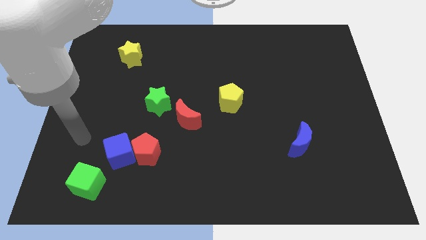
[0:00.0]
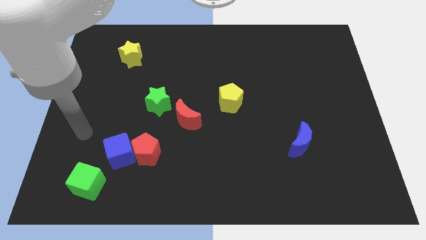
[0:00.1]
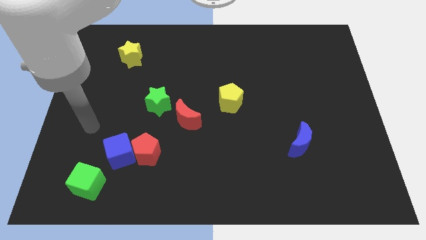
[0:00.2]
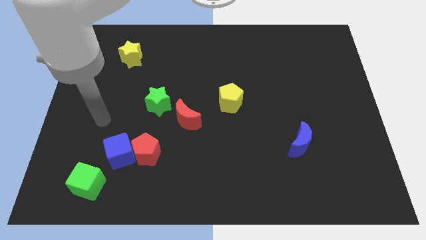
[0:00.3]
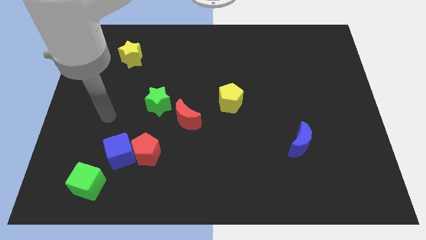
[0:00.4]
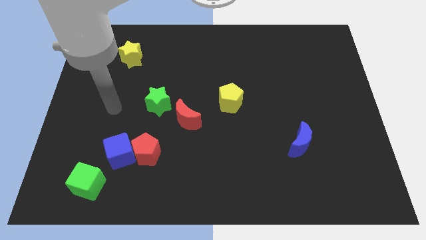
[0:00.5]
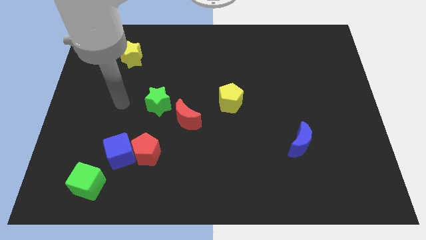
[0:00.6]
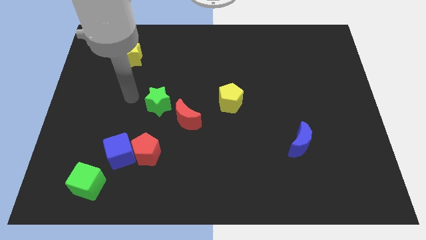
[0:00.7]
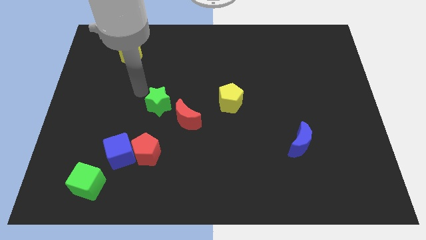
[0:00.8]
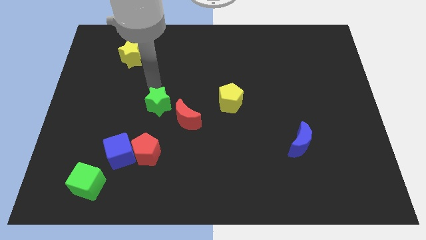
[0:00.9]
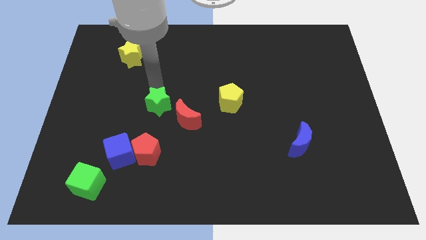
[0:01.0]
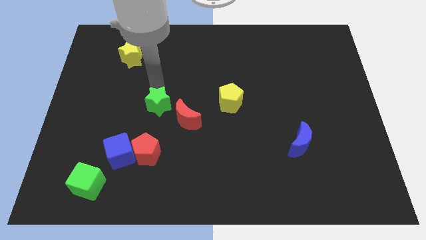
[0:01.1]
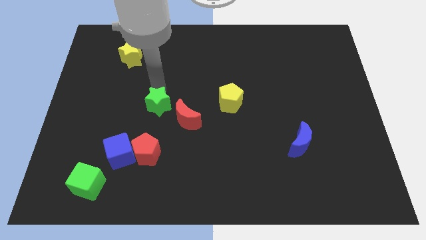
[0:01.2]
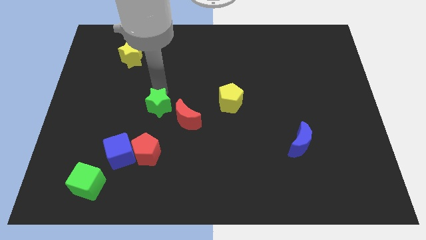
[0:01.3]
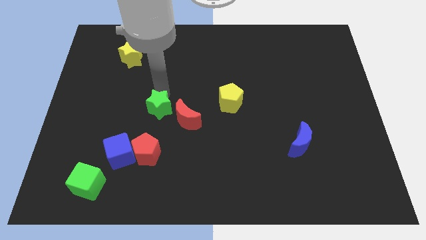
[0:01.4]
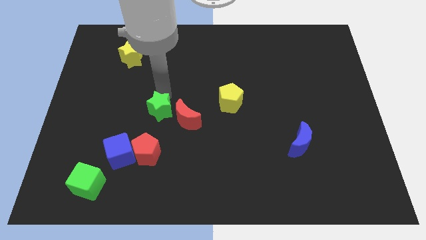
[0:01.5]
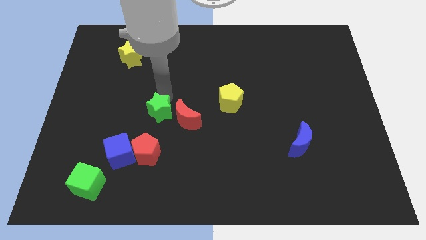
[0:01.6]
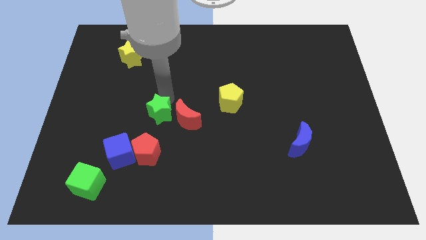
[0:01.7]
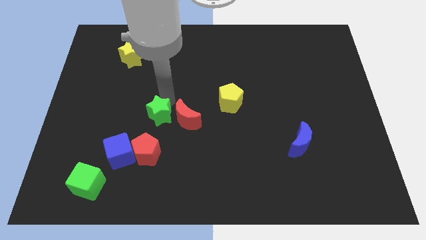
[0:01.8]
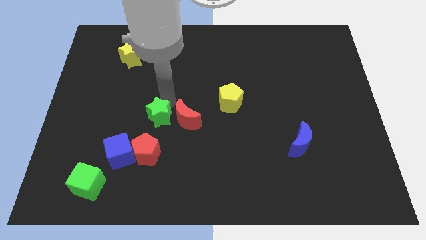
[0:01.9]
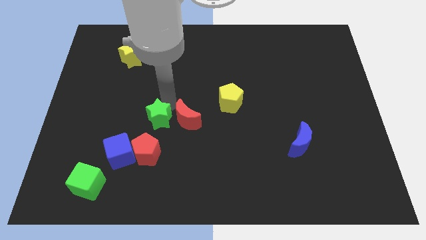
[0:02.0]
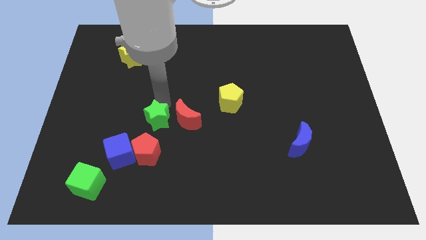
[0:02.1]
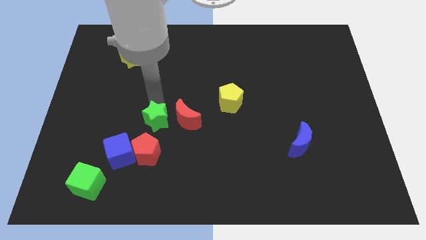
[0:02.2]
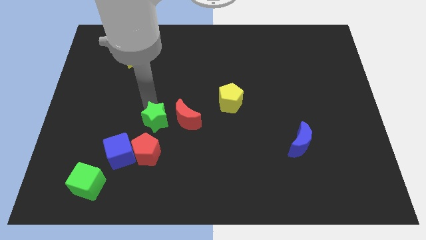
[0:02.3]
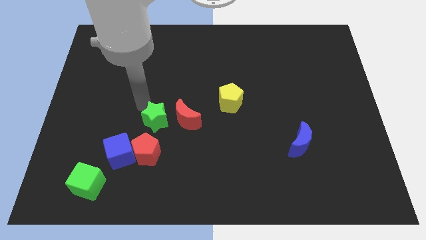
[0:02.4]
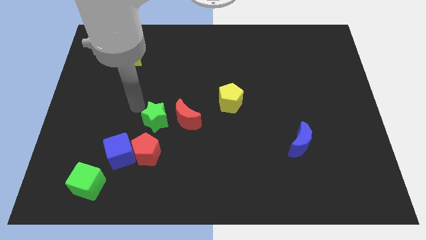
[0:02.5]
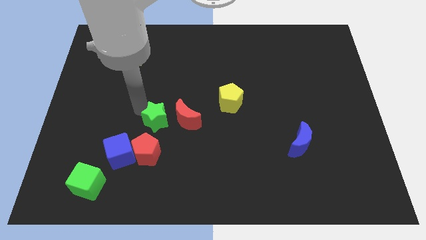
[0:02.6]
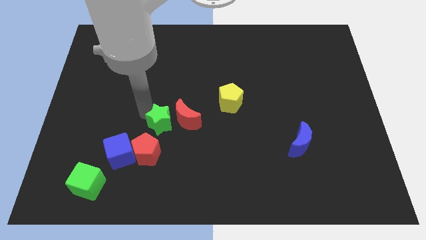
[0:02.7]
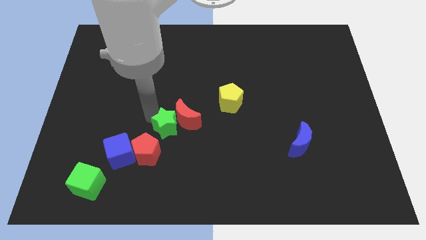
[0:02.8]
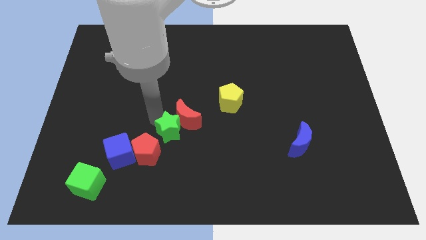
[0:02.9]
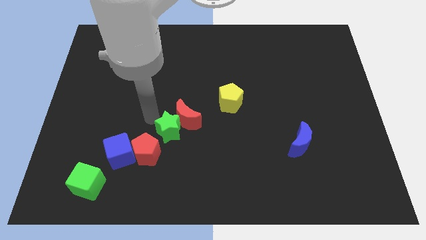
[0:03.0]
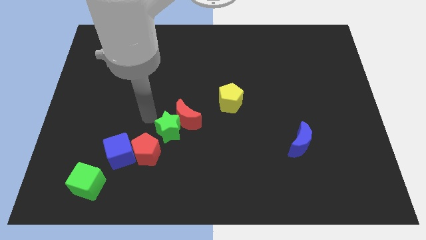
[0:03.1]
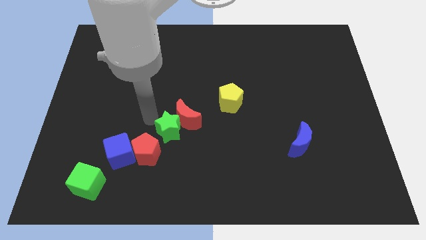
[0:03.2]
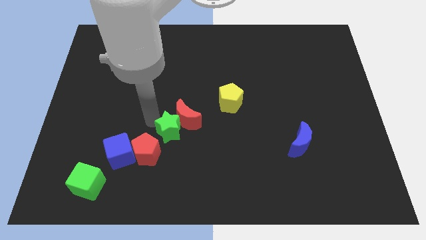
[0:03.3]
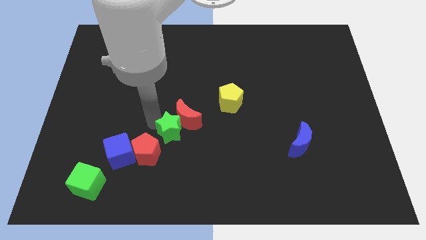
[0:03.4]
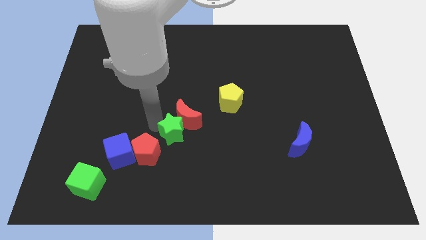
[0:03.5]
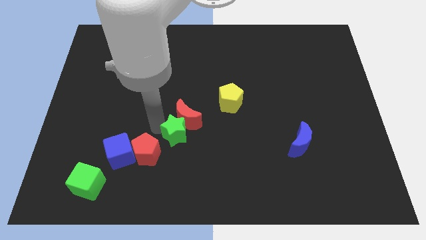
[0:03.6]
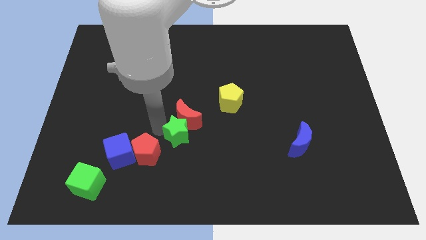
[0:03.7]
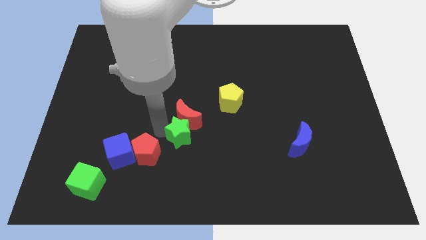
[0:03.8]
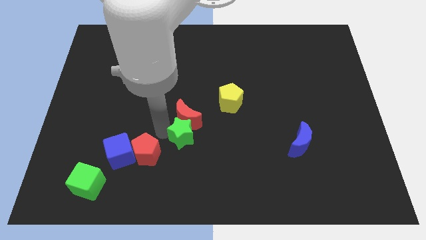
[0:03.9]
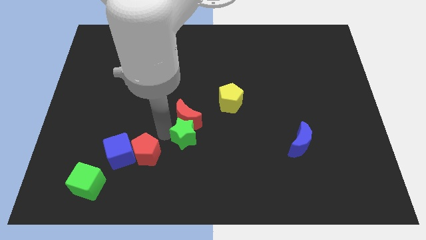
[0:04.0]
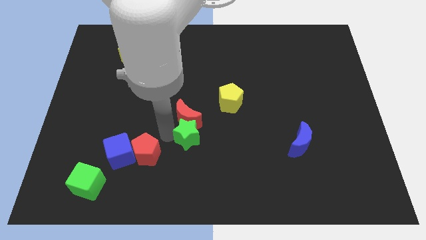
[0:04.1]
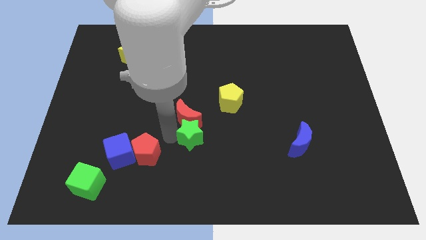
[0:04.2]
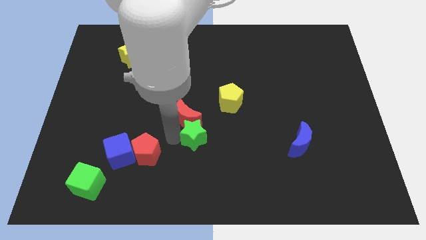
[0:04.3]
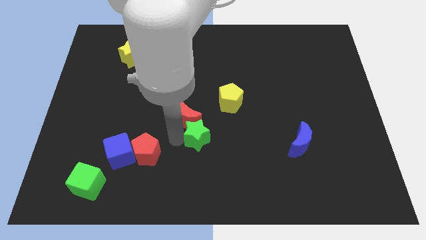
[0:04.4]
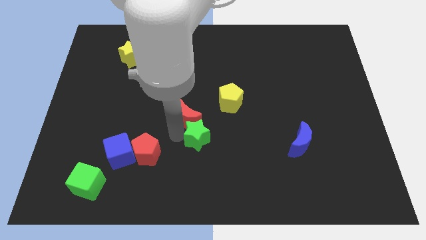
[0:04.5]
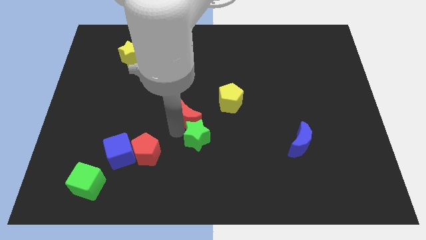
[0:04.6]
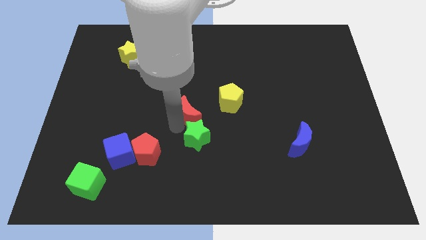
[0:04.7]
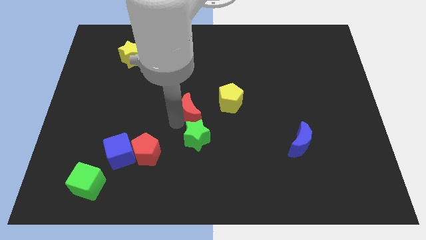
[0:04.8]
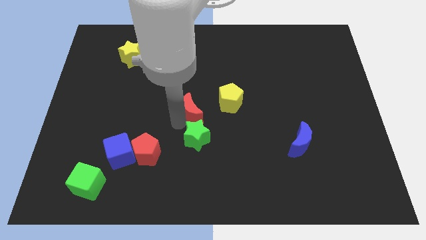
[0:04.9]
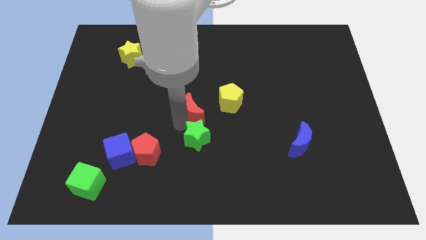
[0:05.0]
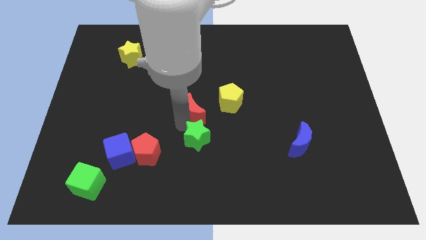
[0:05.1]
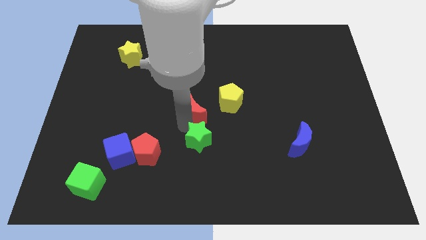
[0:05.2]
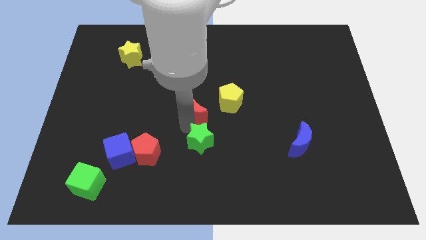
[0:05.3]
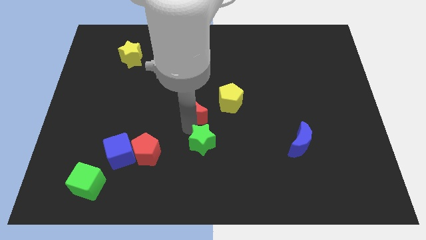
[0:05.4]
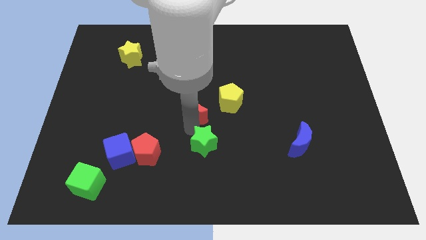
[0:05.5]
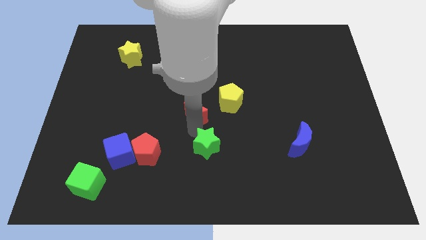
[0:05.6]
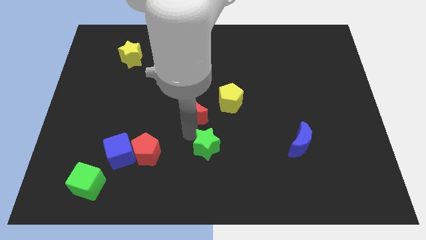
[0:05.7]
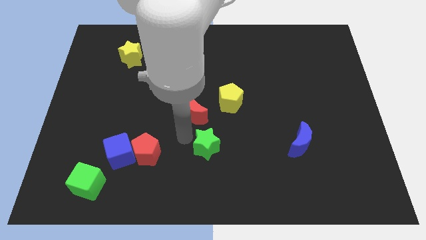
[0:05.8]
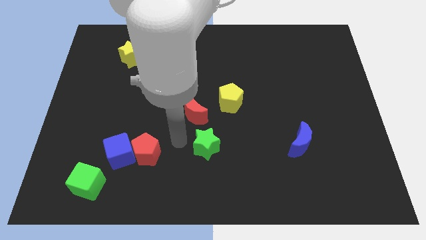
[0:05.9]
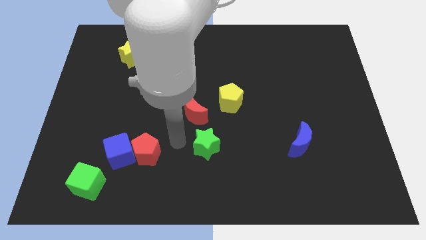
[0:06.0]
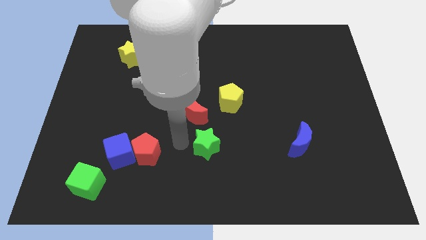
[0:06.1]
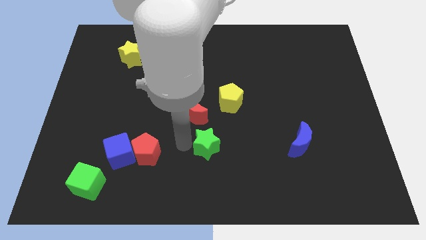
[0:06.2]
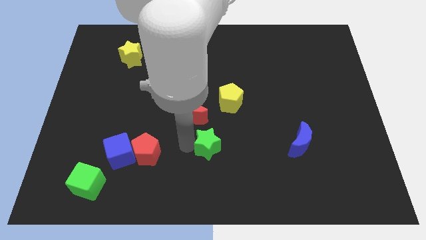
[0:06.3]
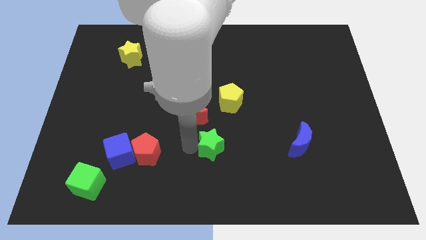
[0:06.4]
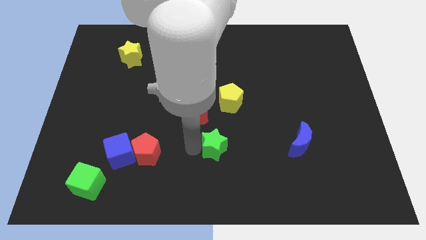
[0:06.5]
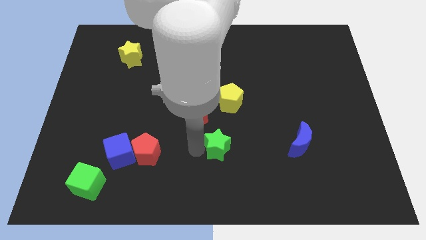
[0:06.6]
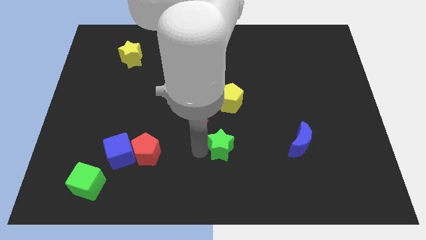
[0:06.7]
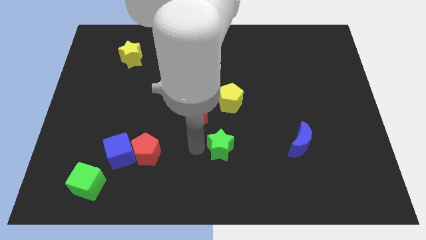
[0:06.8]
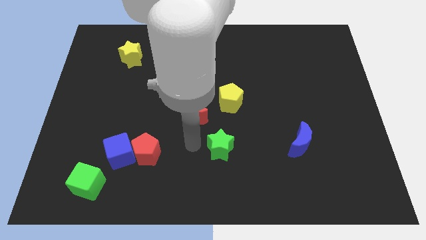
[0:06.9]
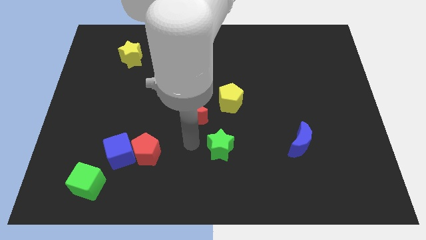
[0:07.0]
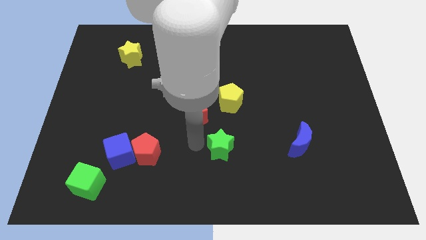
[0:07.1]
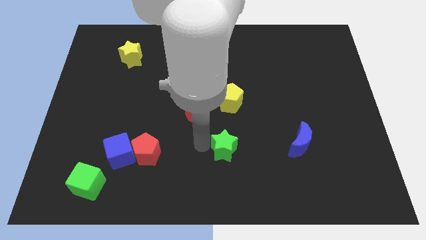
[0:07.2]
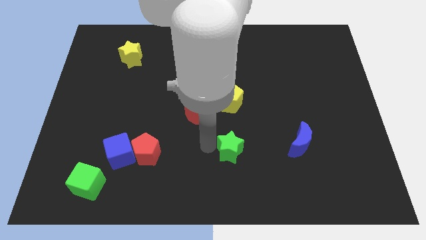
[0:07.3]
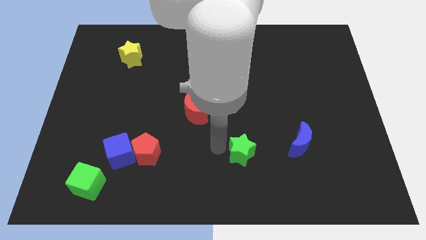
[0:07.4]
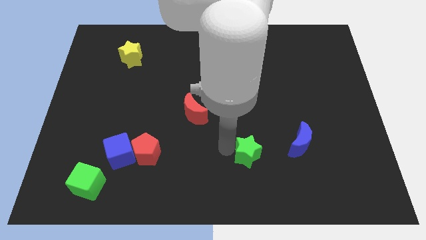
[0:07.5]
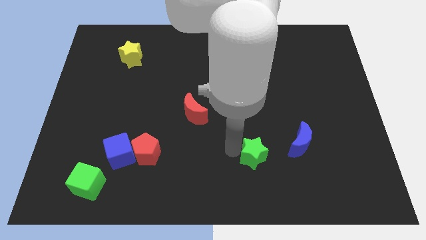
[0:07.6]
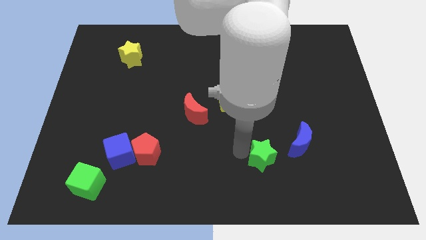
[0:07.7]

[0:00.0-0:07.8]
slide the green star to the bottom left of the blue moon
